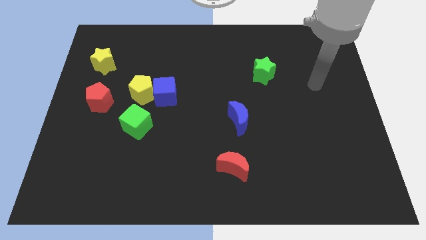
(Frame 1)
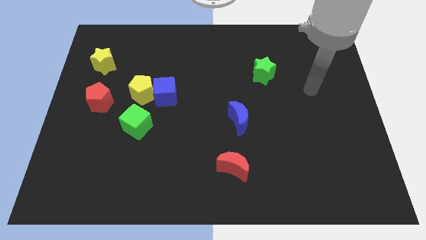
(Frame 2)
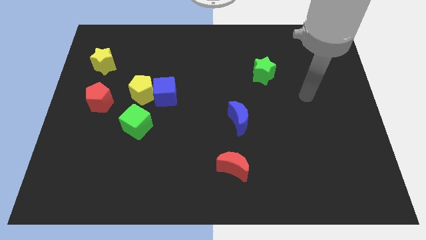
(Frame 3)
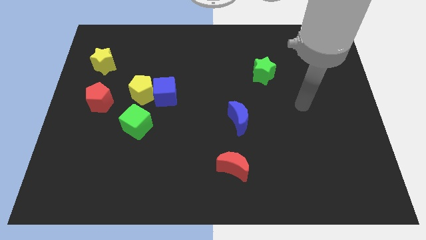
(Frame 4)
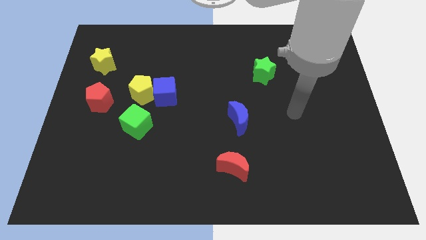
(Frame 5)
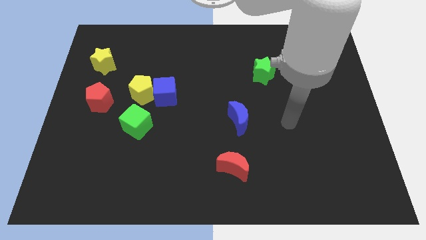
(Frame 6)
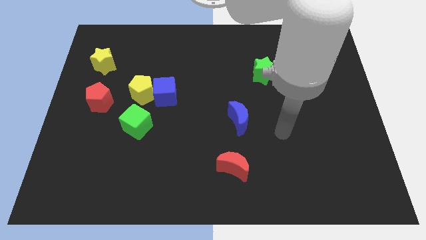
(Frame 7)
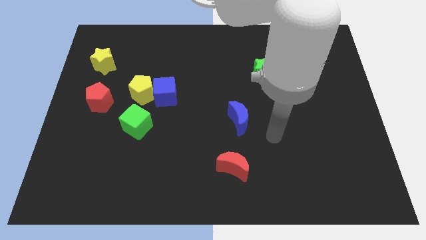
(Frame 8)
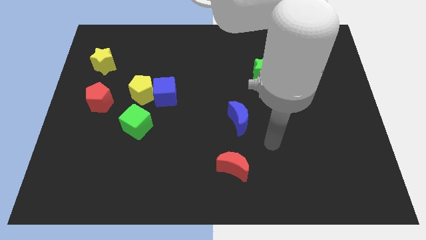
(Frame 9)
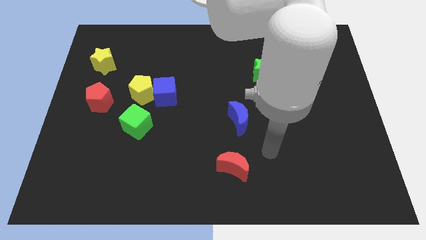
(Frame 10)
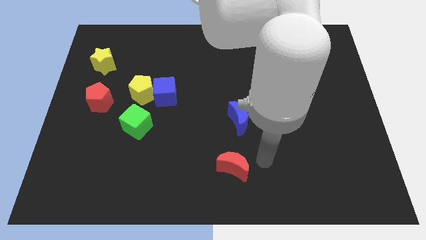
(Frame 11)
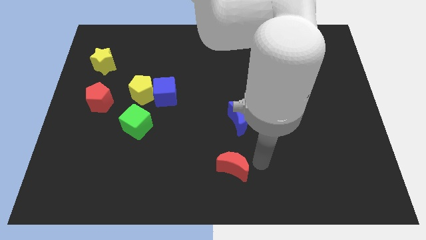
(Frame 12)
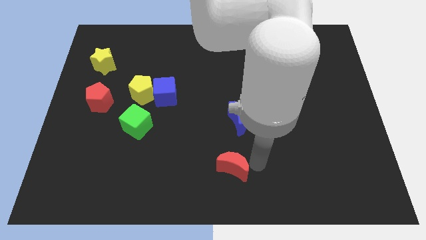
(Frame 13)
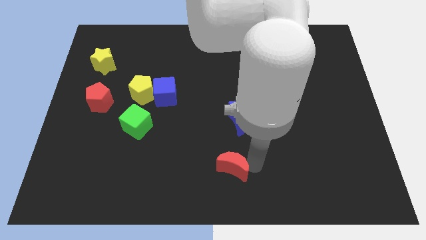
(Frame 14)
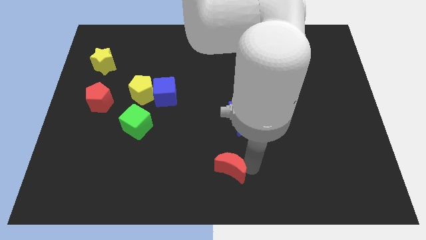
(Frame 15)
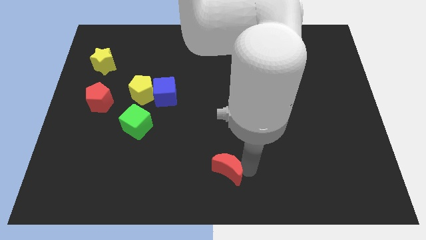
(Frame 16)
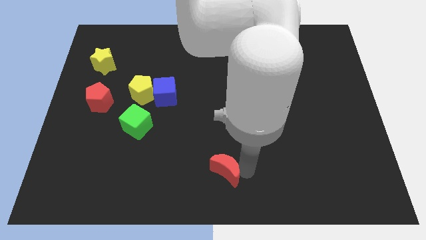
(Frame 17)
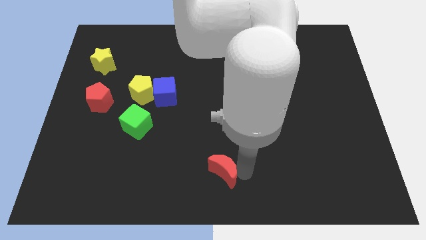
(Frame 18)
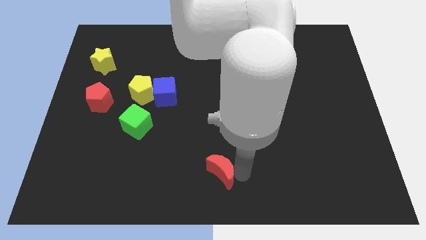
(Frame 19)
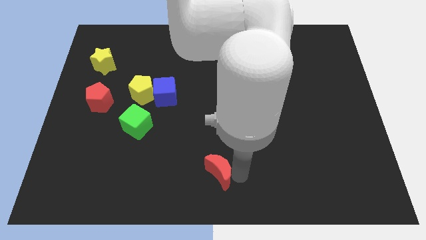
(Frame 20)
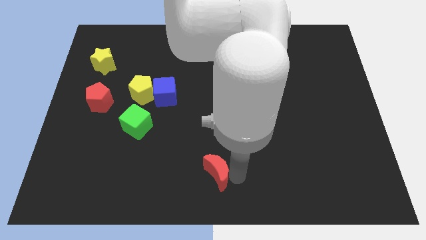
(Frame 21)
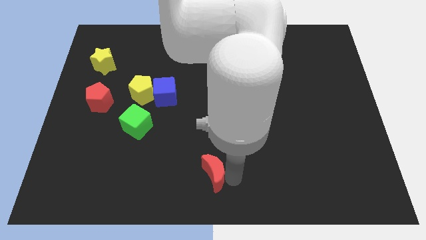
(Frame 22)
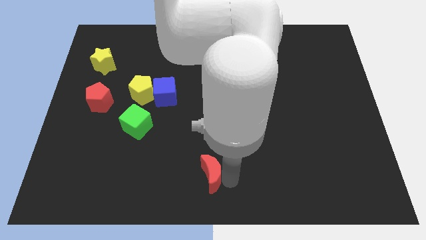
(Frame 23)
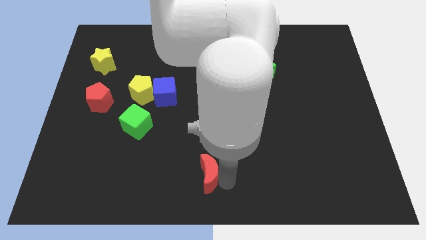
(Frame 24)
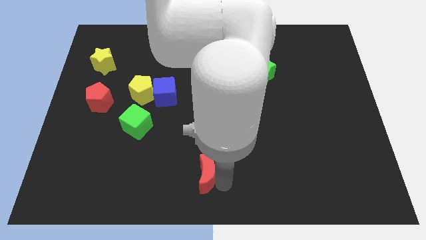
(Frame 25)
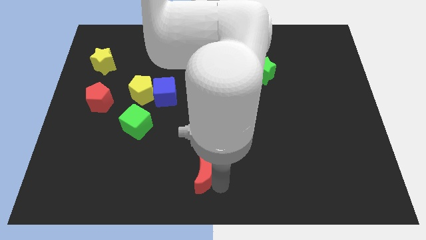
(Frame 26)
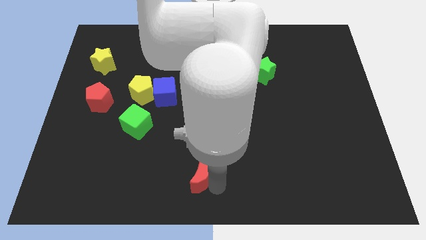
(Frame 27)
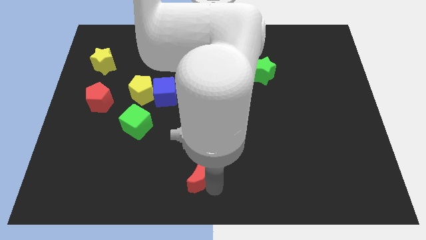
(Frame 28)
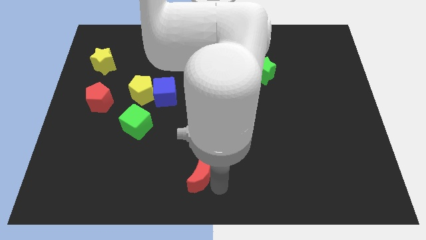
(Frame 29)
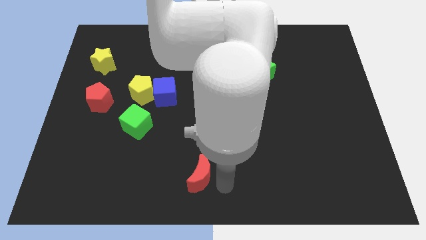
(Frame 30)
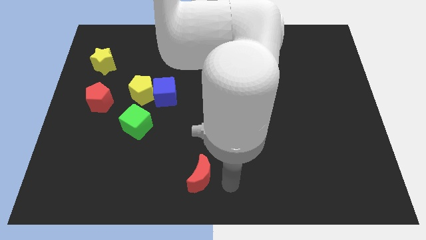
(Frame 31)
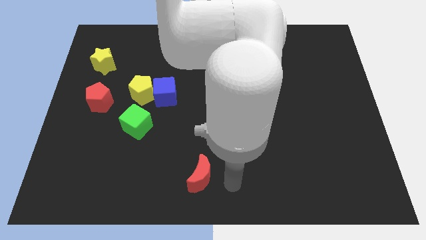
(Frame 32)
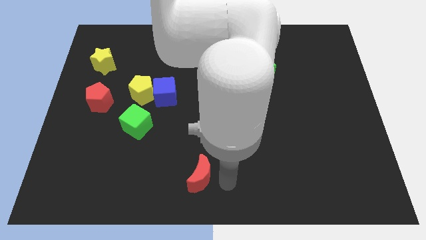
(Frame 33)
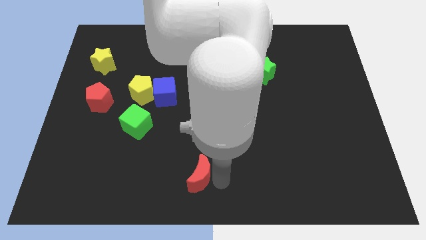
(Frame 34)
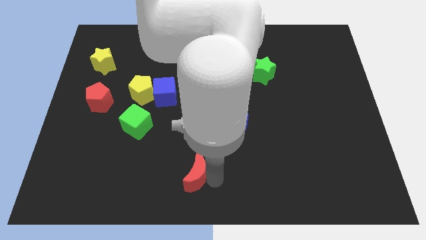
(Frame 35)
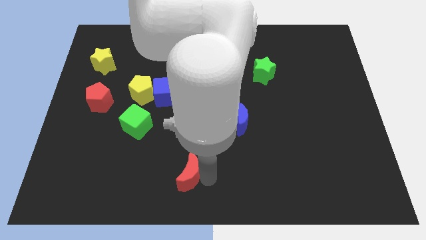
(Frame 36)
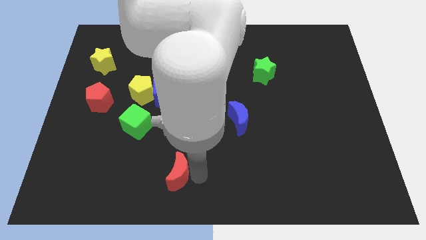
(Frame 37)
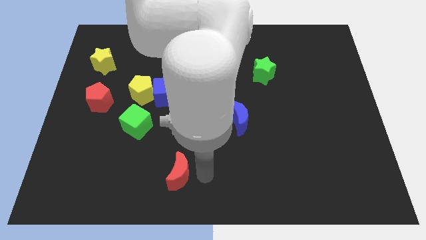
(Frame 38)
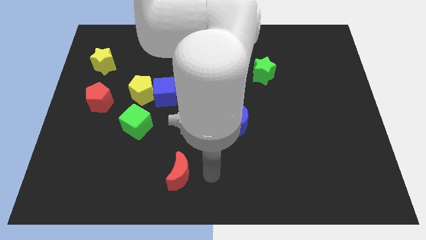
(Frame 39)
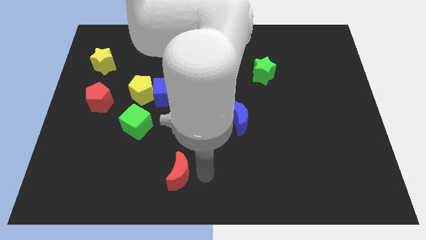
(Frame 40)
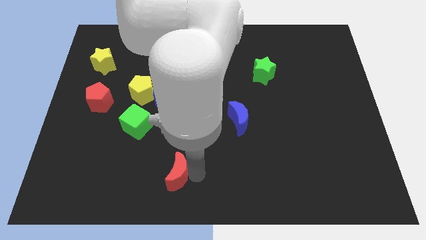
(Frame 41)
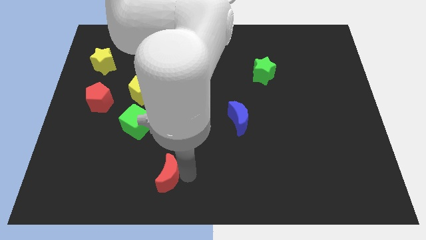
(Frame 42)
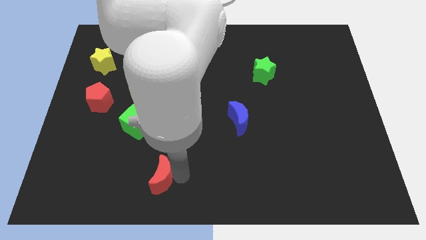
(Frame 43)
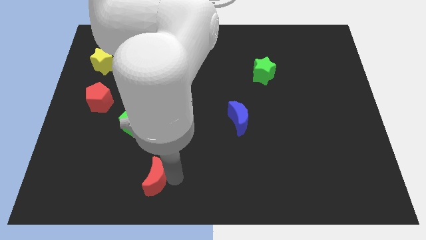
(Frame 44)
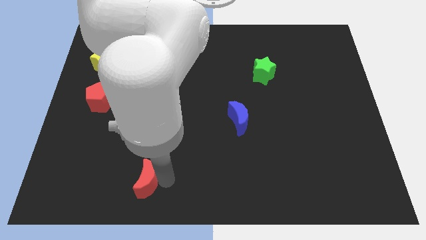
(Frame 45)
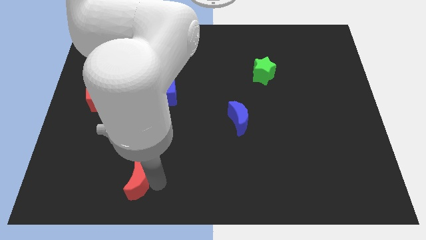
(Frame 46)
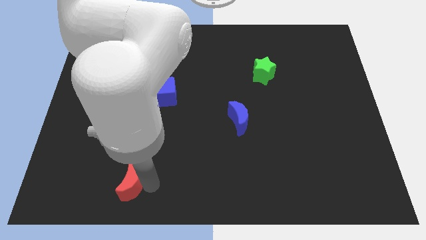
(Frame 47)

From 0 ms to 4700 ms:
slide the red moon left

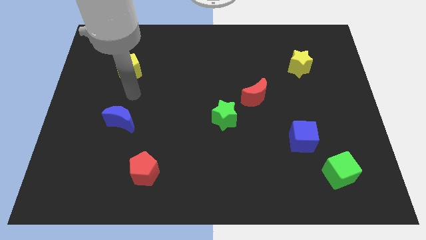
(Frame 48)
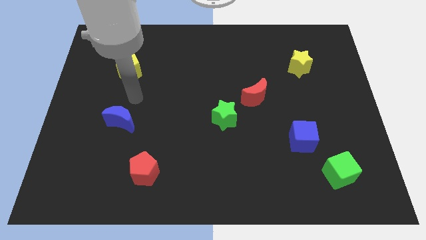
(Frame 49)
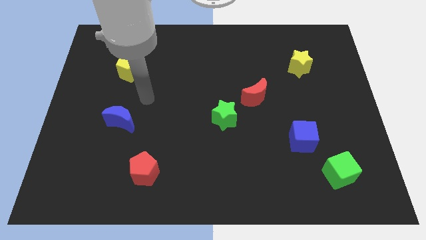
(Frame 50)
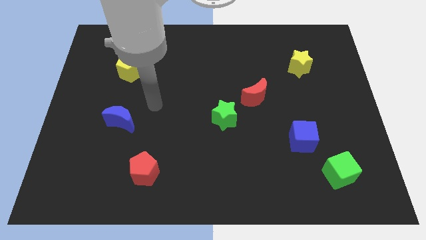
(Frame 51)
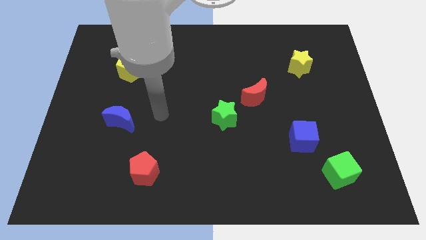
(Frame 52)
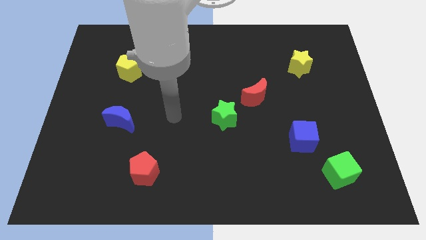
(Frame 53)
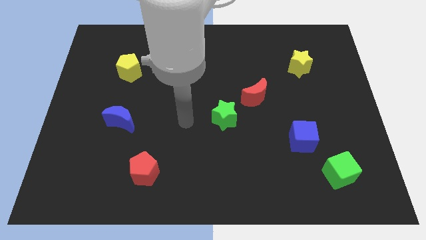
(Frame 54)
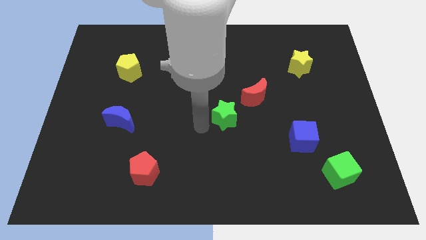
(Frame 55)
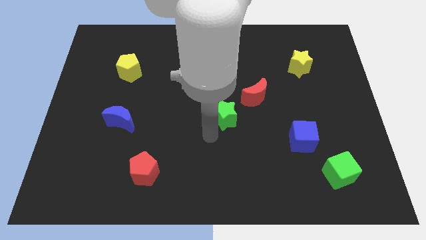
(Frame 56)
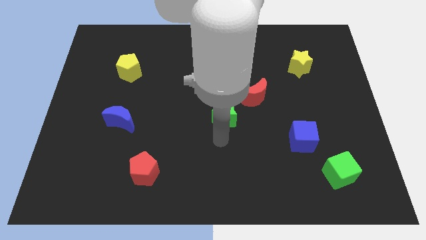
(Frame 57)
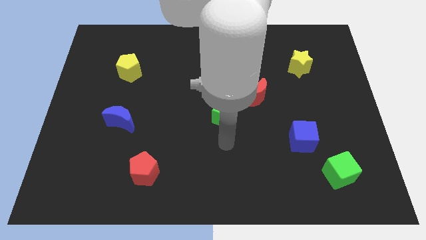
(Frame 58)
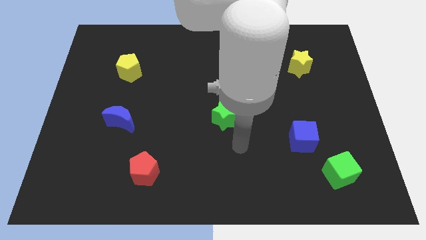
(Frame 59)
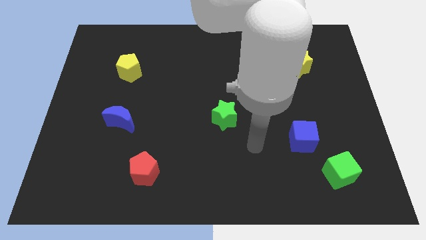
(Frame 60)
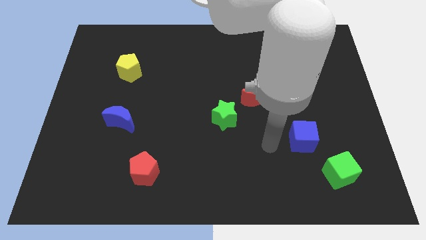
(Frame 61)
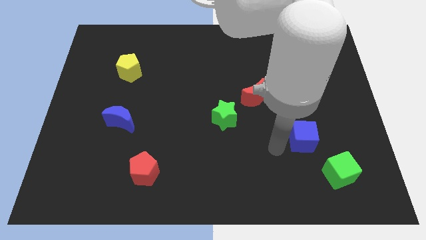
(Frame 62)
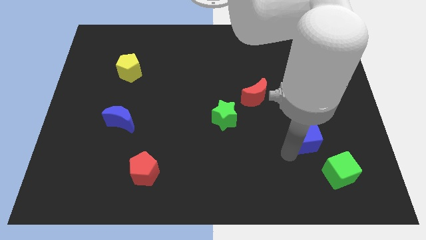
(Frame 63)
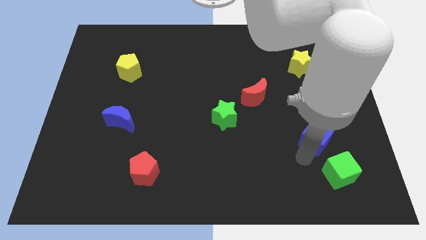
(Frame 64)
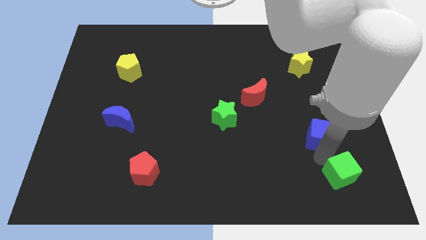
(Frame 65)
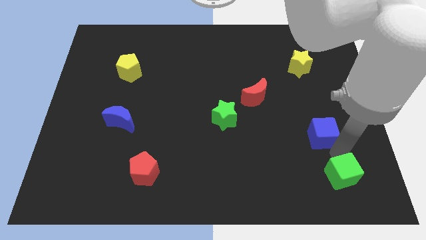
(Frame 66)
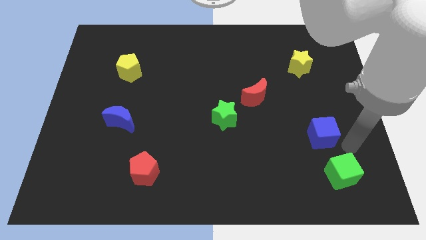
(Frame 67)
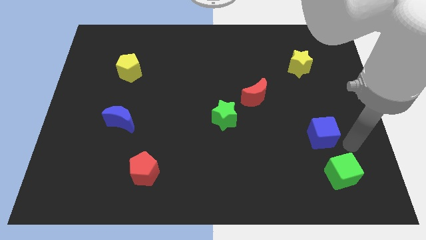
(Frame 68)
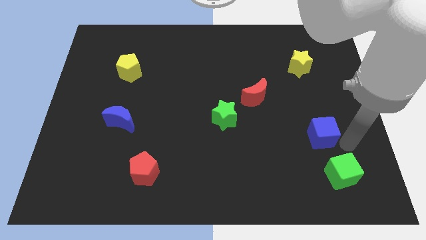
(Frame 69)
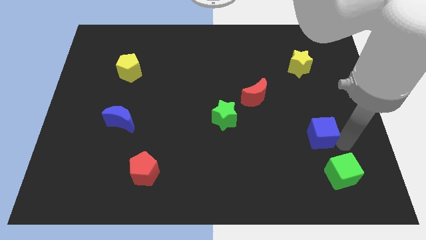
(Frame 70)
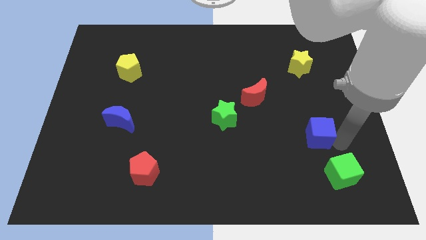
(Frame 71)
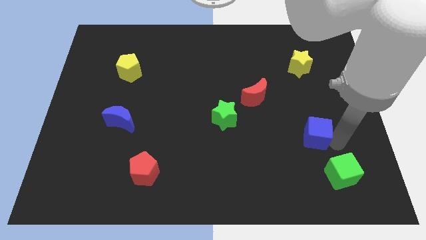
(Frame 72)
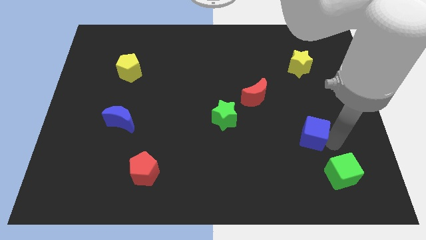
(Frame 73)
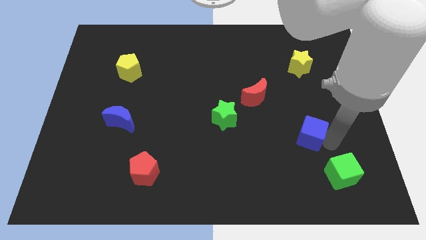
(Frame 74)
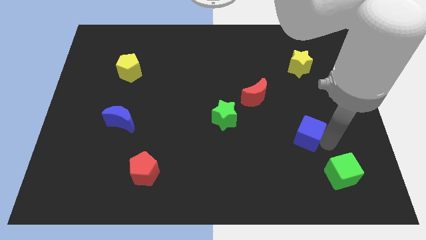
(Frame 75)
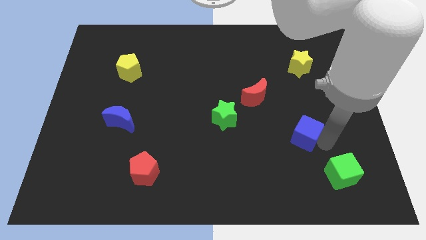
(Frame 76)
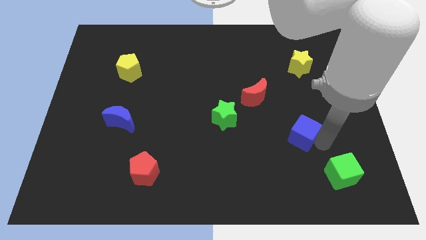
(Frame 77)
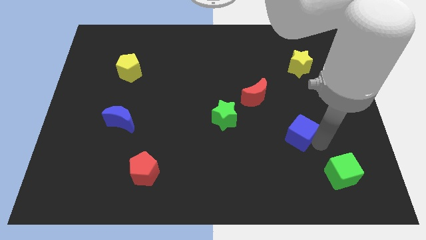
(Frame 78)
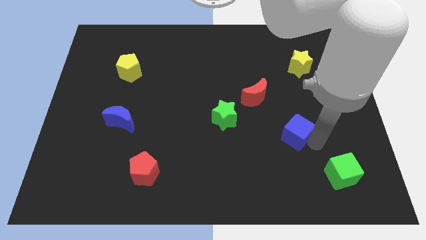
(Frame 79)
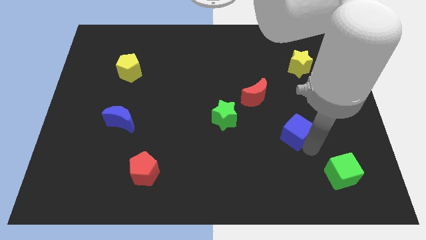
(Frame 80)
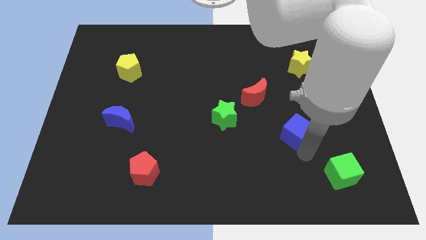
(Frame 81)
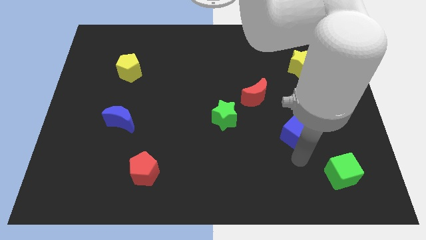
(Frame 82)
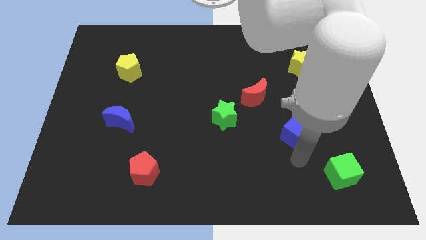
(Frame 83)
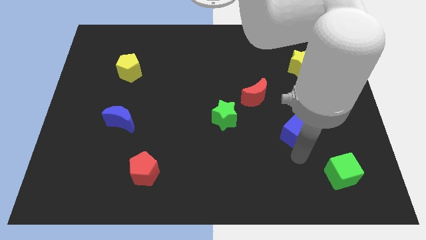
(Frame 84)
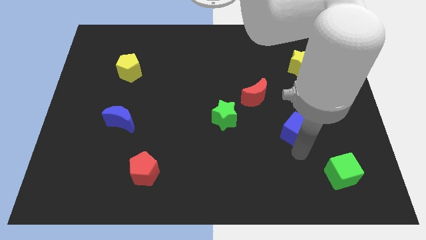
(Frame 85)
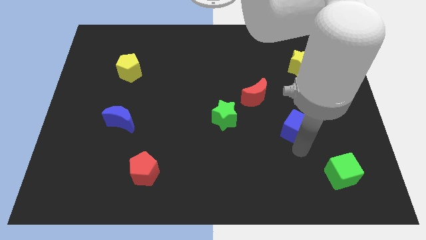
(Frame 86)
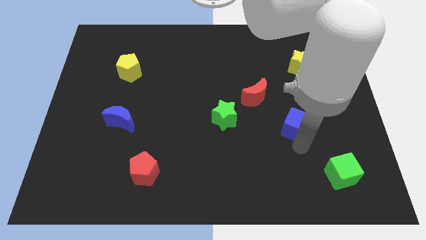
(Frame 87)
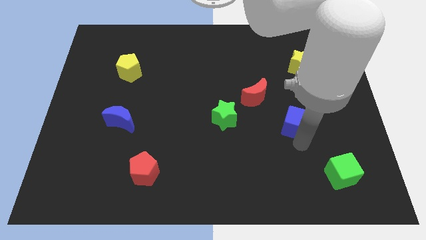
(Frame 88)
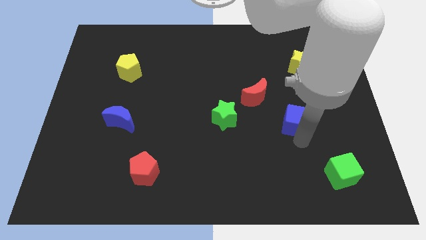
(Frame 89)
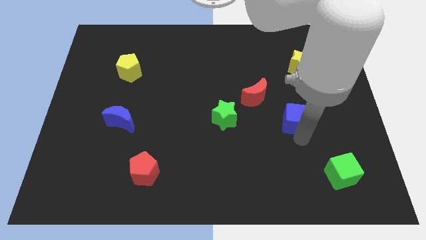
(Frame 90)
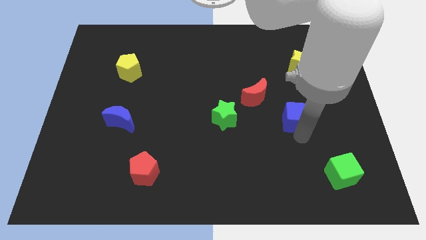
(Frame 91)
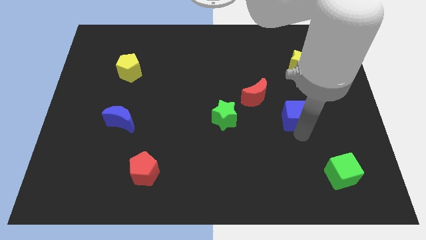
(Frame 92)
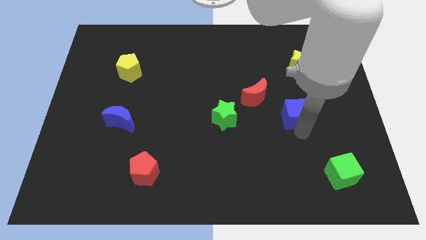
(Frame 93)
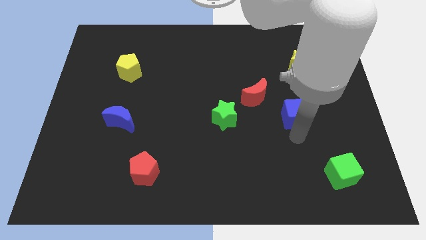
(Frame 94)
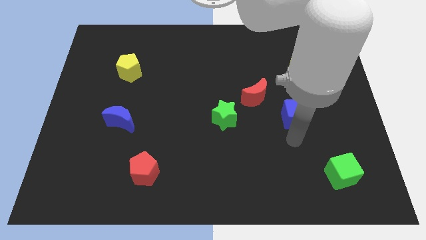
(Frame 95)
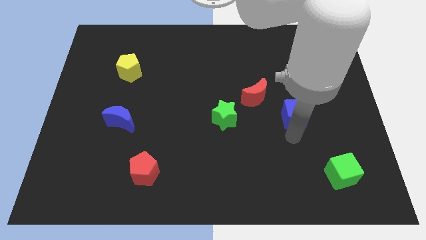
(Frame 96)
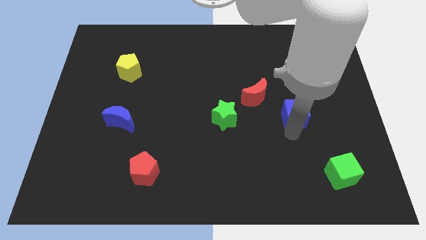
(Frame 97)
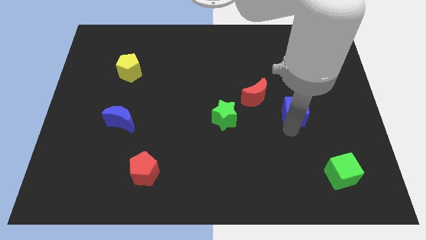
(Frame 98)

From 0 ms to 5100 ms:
push the blue cube slightly upwards
